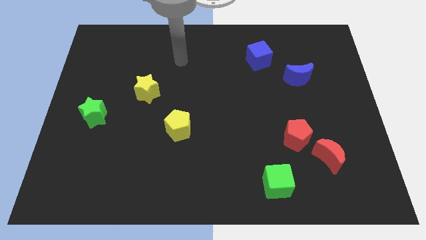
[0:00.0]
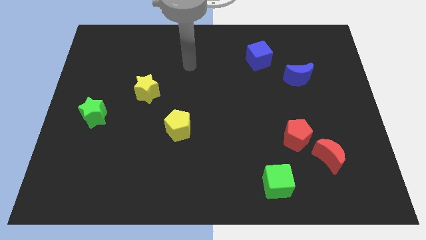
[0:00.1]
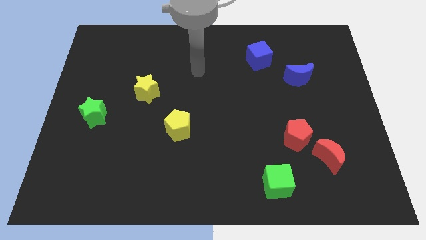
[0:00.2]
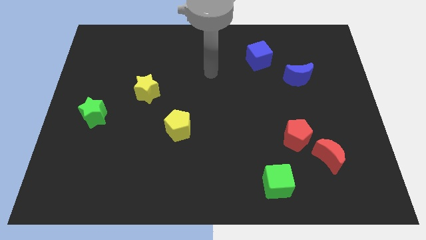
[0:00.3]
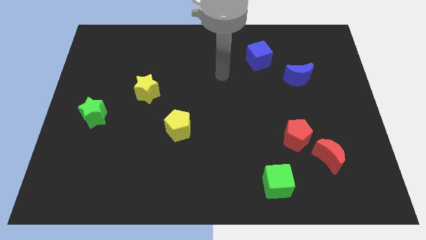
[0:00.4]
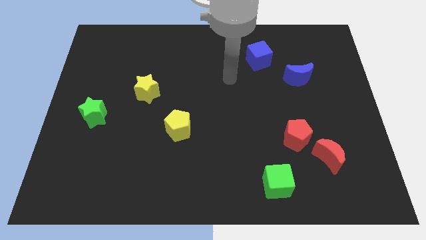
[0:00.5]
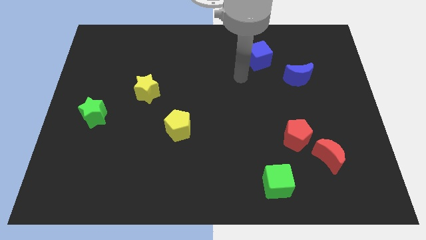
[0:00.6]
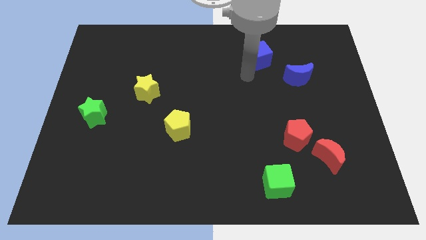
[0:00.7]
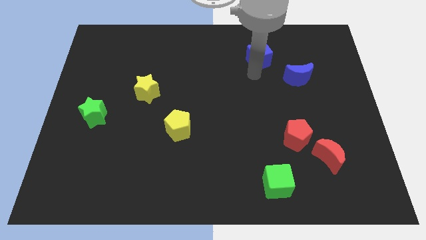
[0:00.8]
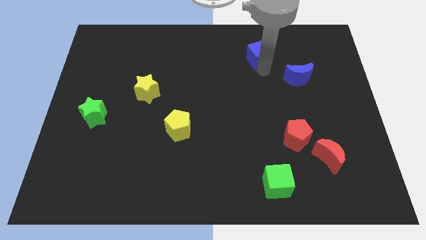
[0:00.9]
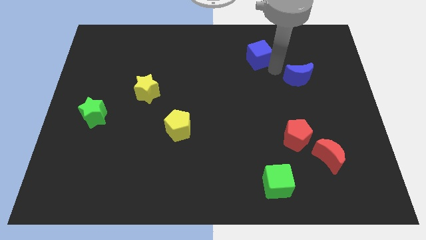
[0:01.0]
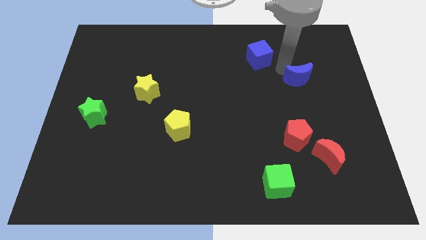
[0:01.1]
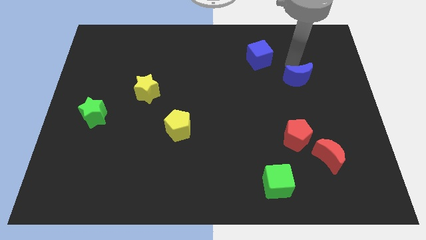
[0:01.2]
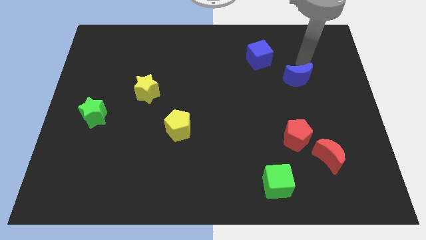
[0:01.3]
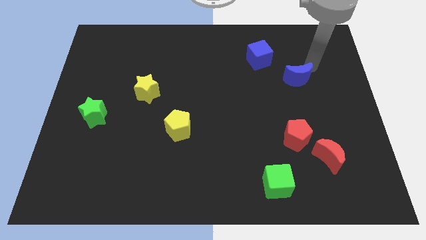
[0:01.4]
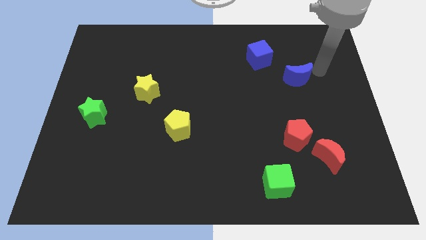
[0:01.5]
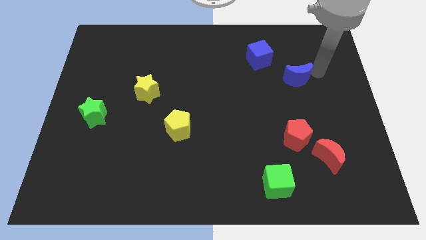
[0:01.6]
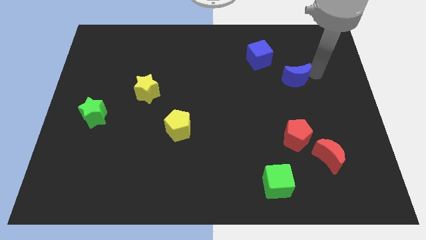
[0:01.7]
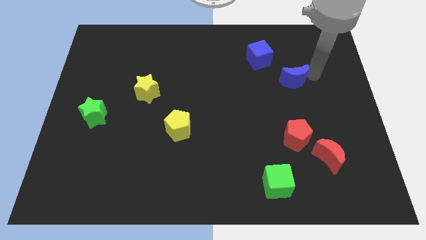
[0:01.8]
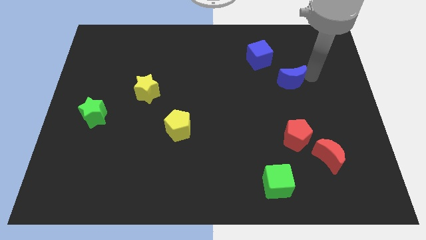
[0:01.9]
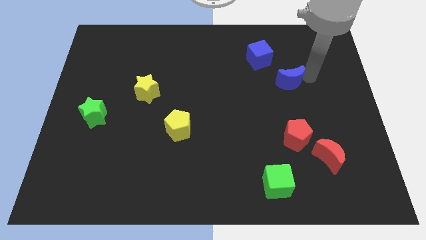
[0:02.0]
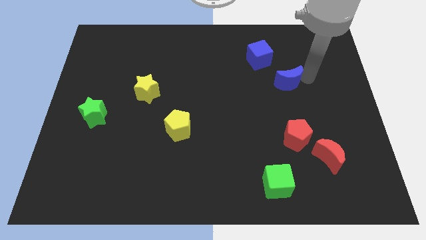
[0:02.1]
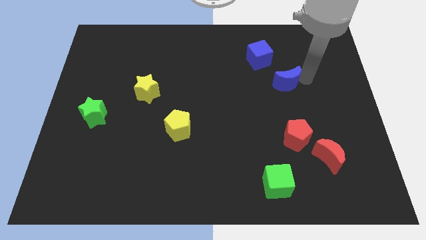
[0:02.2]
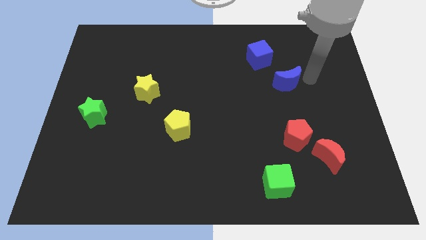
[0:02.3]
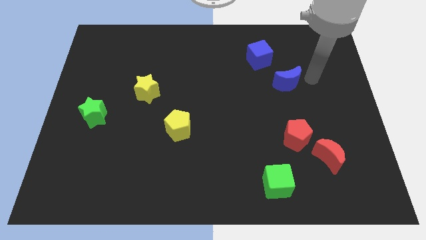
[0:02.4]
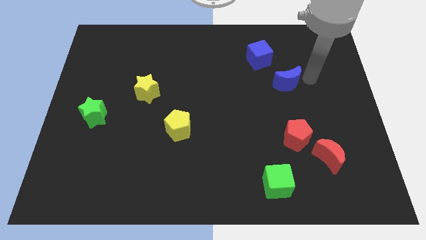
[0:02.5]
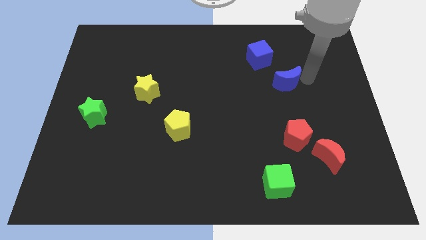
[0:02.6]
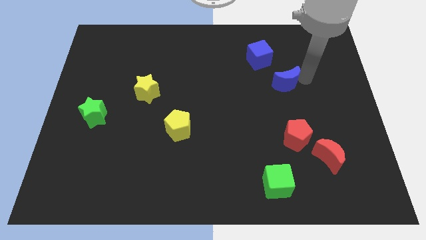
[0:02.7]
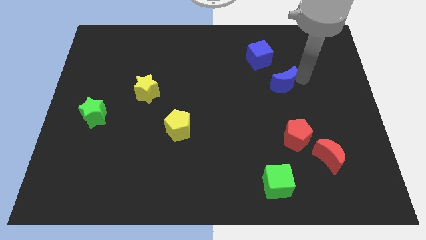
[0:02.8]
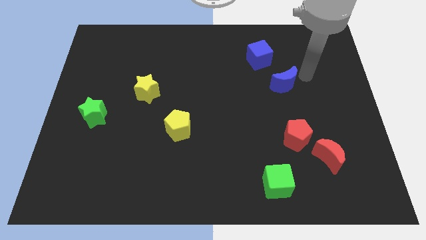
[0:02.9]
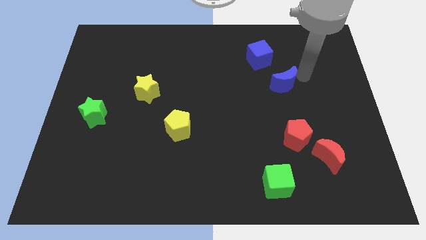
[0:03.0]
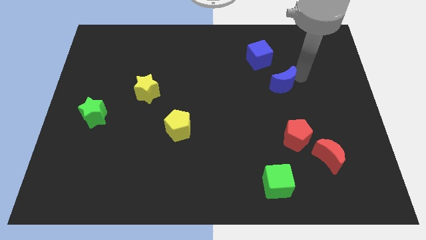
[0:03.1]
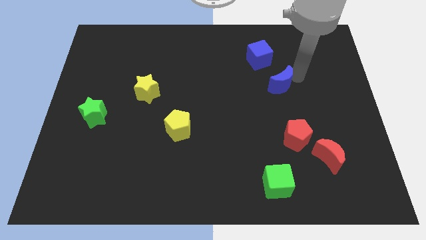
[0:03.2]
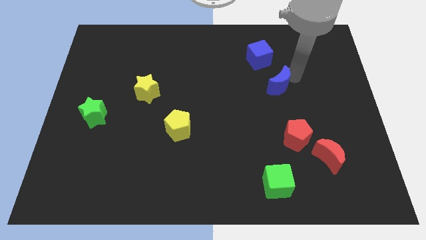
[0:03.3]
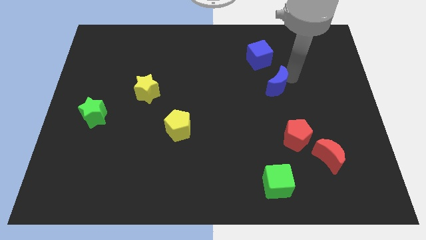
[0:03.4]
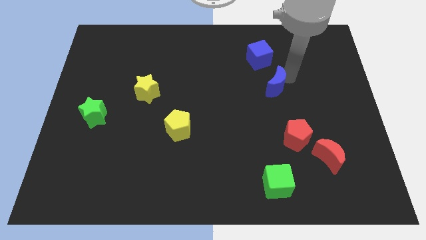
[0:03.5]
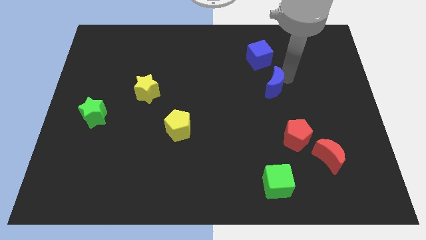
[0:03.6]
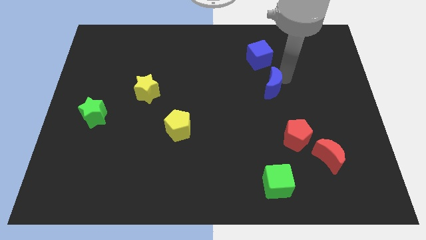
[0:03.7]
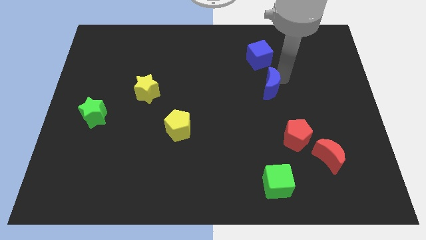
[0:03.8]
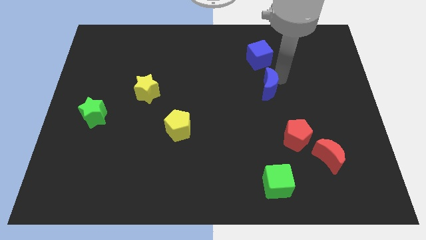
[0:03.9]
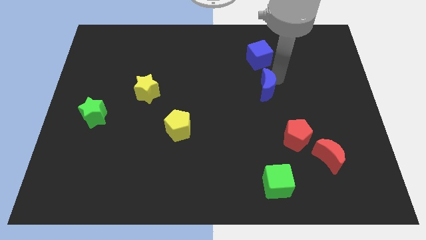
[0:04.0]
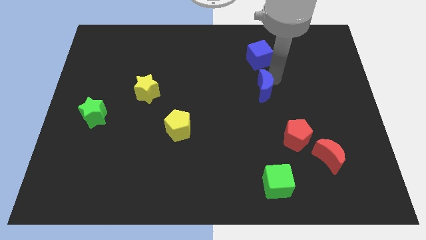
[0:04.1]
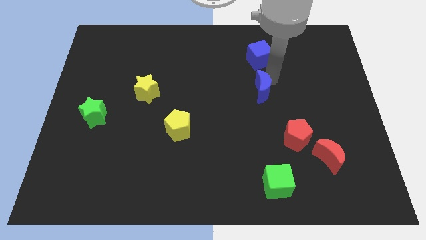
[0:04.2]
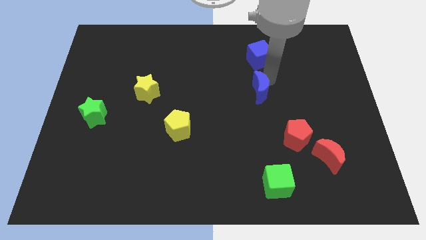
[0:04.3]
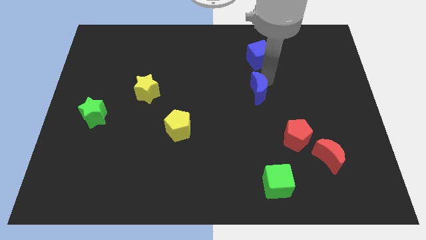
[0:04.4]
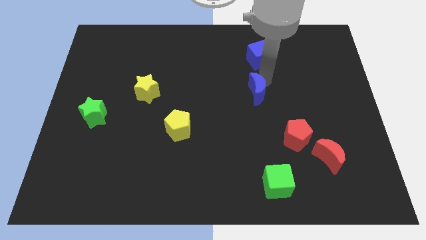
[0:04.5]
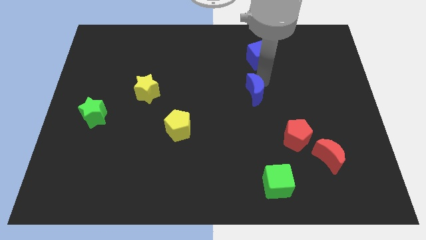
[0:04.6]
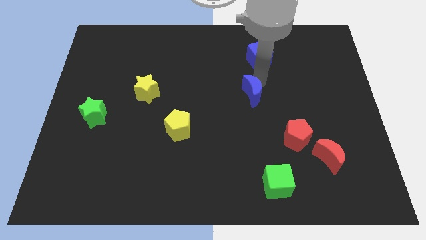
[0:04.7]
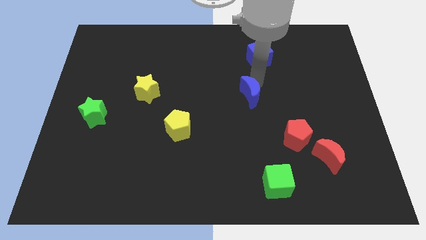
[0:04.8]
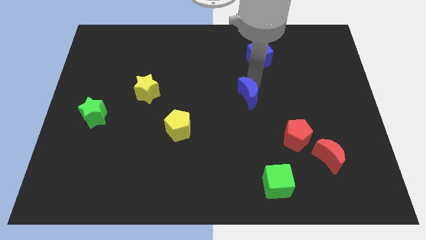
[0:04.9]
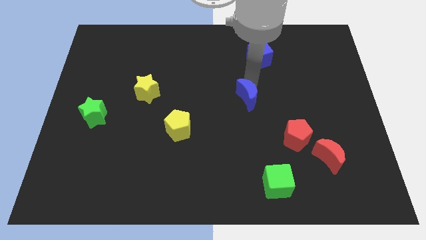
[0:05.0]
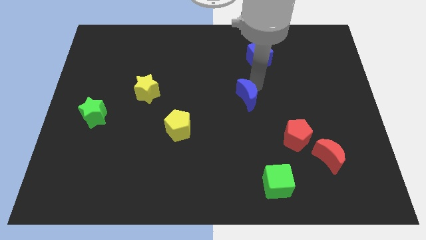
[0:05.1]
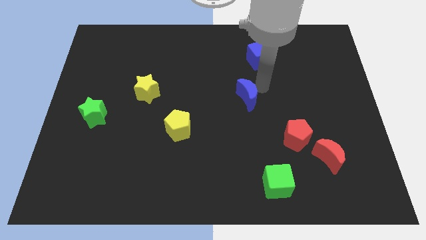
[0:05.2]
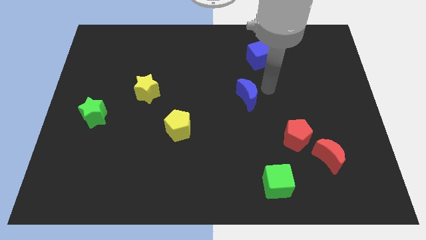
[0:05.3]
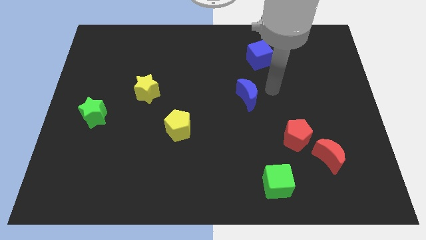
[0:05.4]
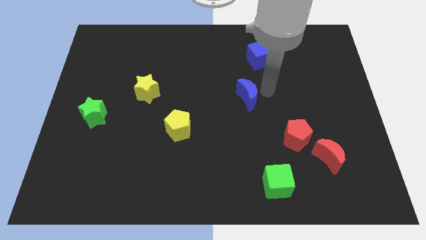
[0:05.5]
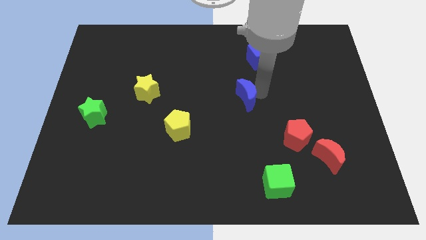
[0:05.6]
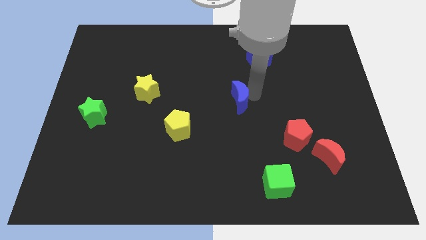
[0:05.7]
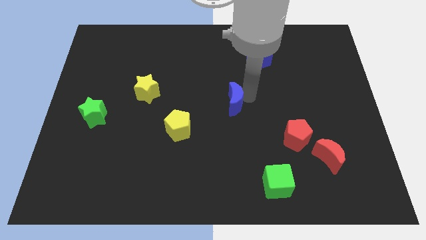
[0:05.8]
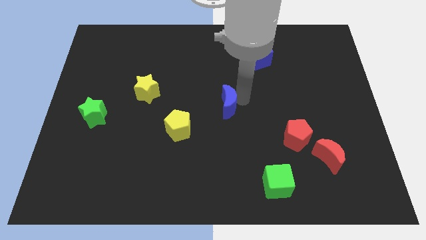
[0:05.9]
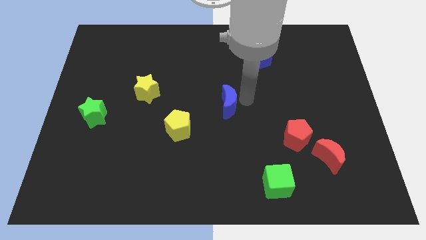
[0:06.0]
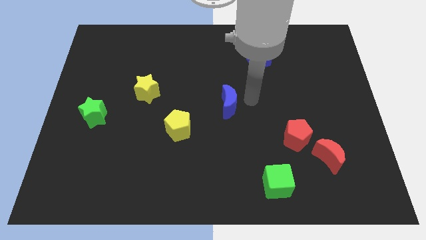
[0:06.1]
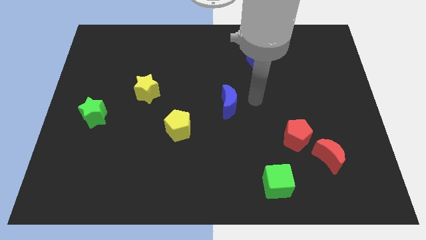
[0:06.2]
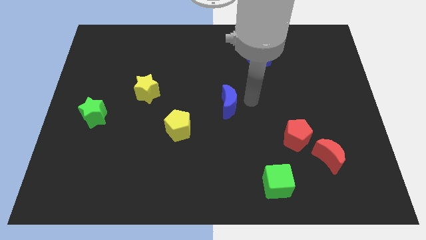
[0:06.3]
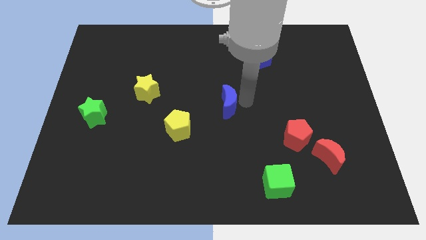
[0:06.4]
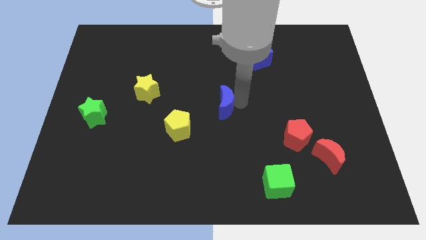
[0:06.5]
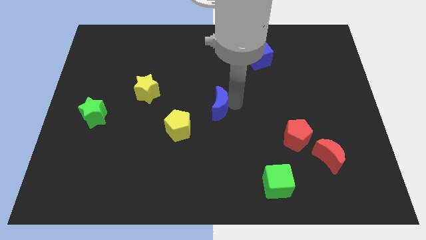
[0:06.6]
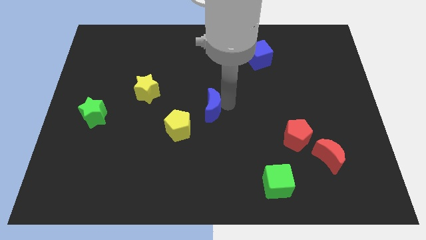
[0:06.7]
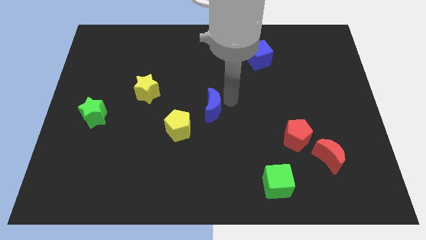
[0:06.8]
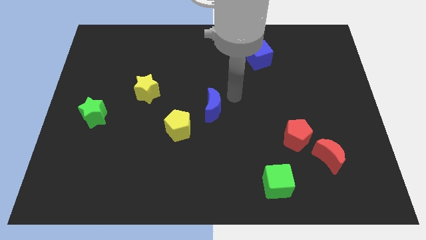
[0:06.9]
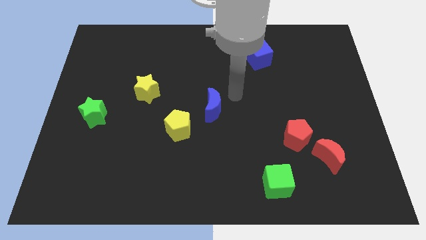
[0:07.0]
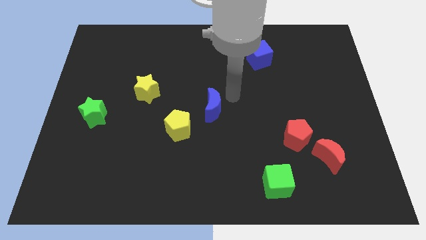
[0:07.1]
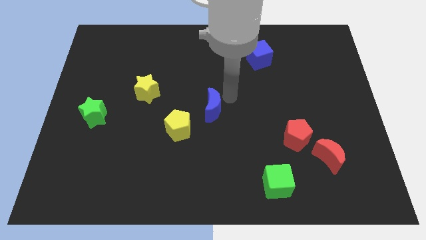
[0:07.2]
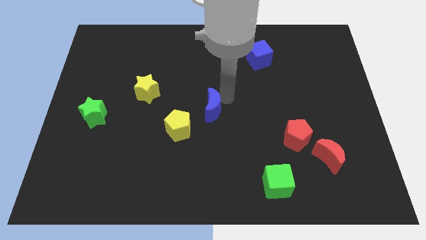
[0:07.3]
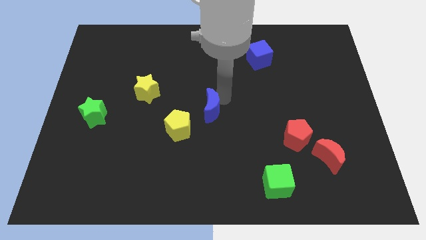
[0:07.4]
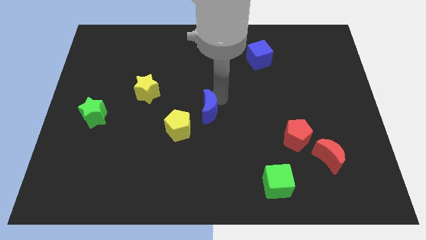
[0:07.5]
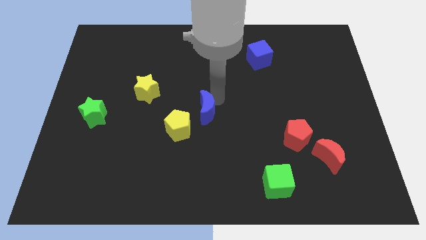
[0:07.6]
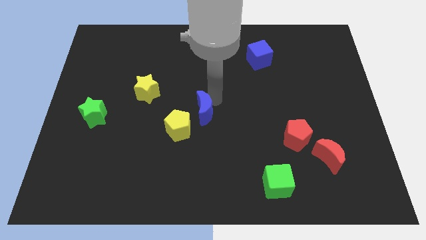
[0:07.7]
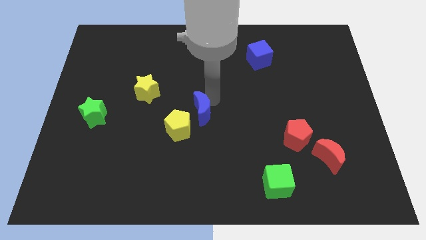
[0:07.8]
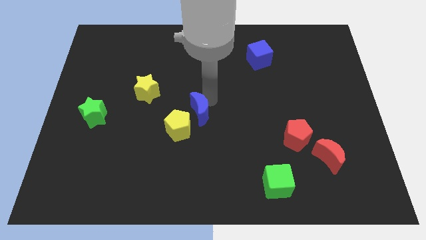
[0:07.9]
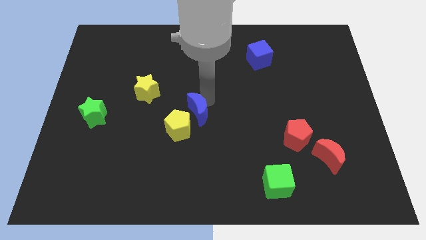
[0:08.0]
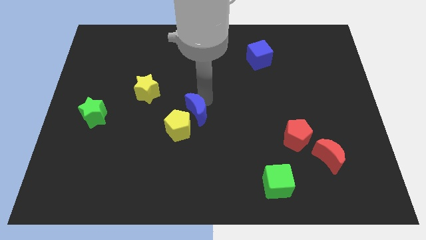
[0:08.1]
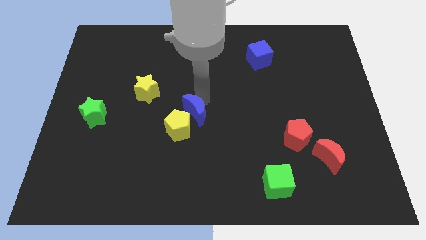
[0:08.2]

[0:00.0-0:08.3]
push the blue moon next to the yellow pentagon
